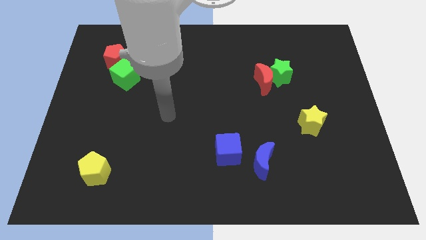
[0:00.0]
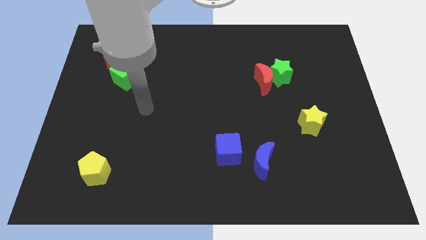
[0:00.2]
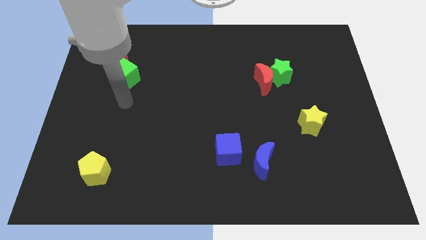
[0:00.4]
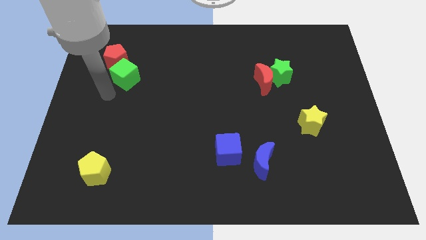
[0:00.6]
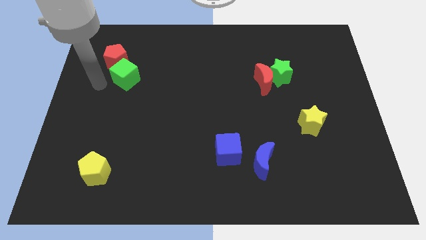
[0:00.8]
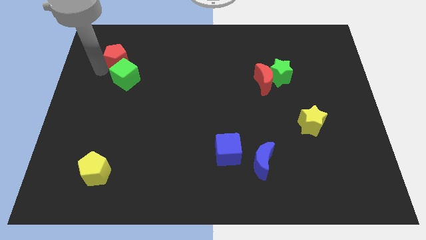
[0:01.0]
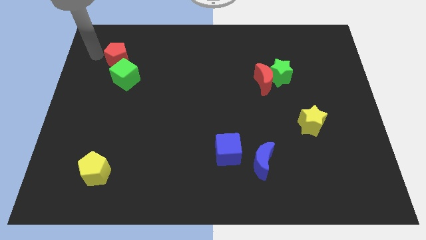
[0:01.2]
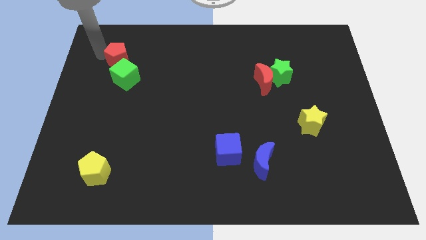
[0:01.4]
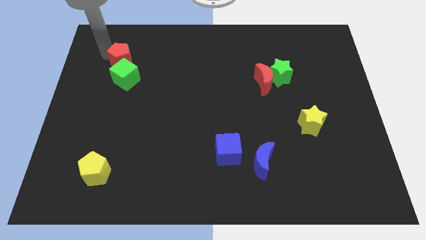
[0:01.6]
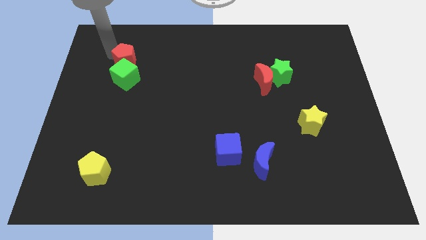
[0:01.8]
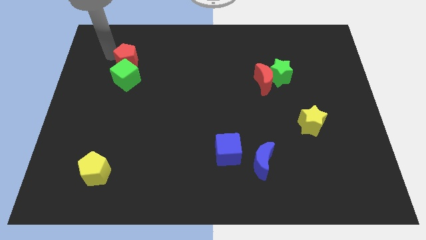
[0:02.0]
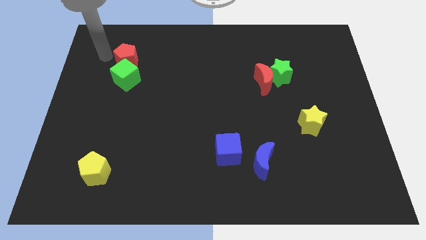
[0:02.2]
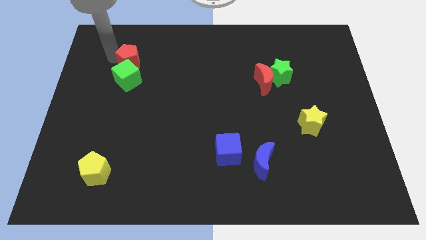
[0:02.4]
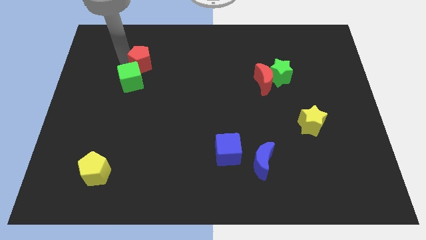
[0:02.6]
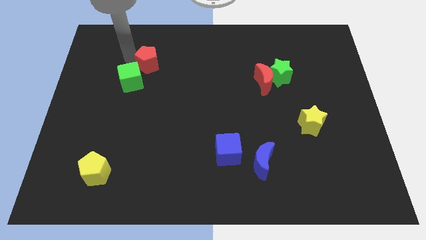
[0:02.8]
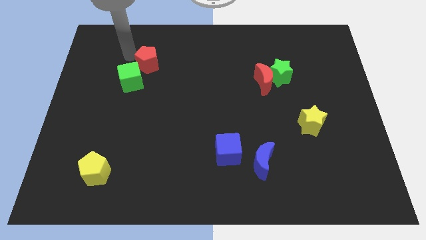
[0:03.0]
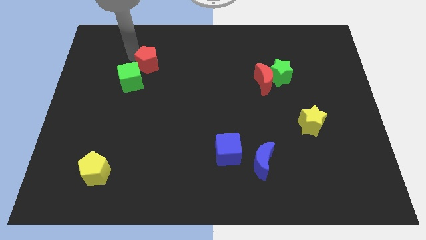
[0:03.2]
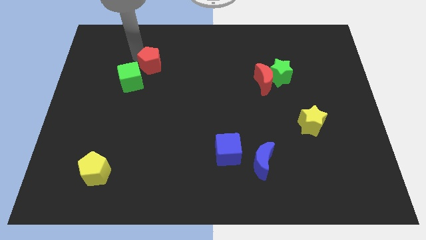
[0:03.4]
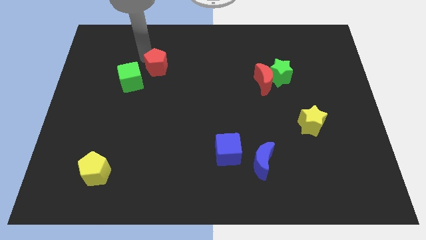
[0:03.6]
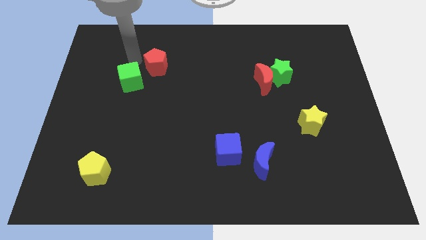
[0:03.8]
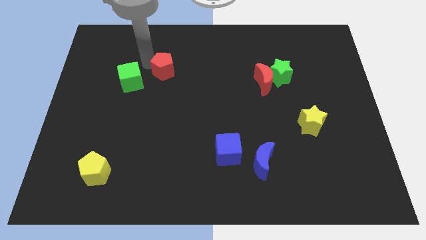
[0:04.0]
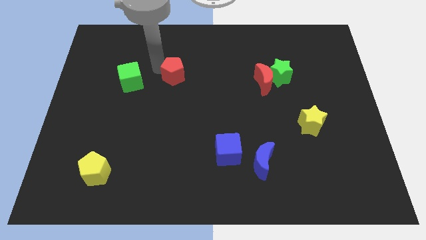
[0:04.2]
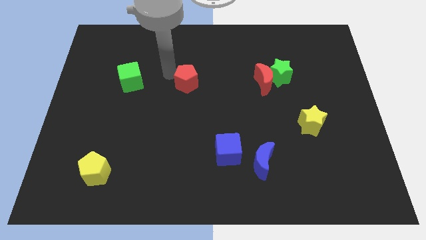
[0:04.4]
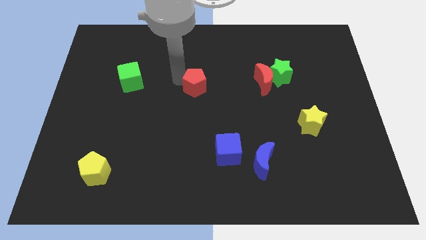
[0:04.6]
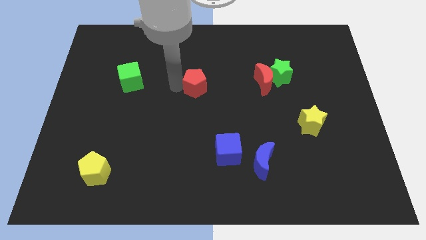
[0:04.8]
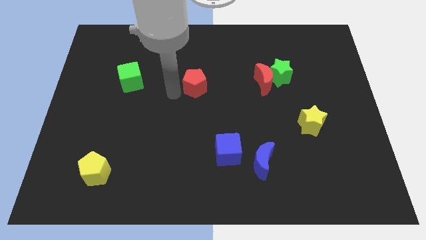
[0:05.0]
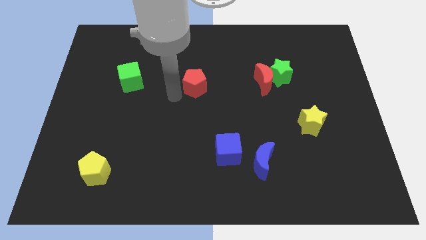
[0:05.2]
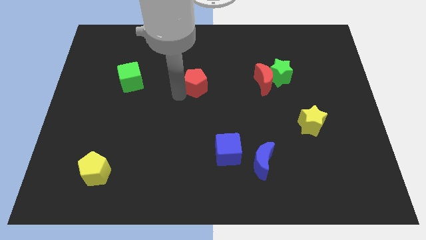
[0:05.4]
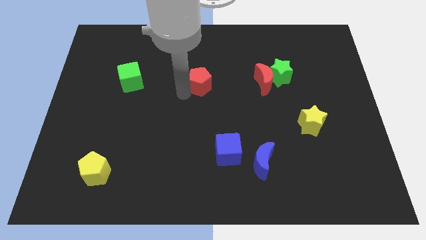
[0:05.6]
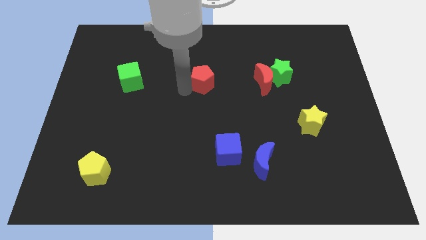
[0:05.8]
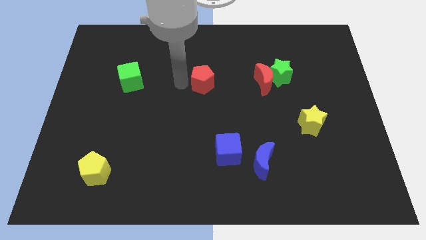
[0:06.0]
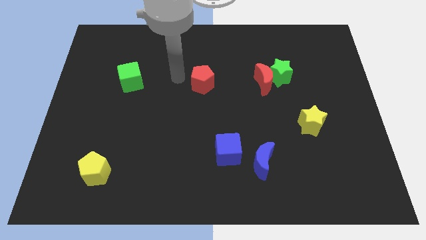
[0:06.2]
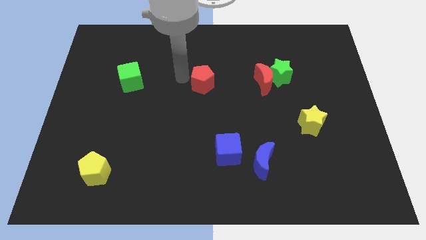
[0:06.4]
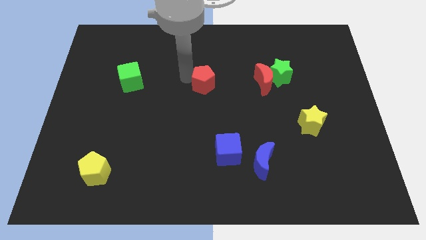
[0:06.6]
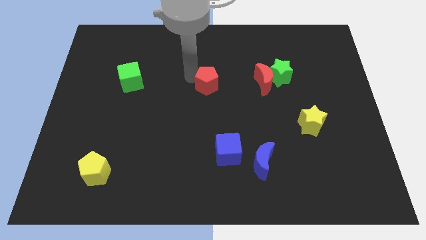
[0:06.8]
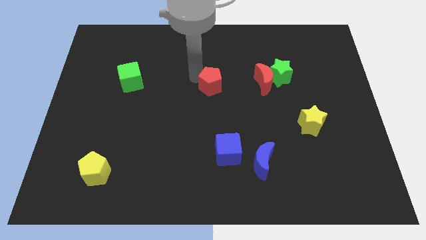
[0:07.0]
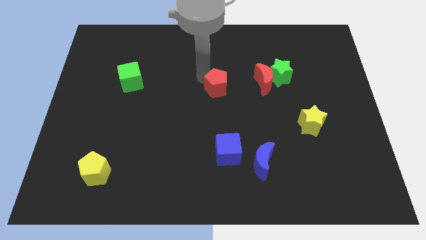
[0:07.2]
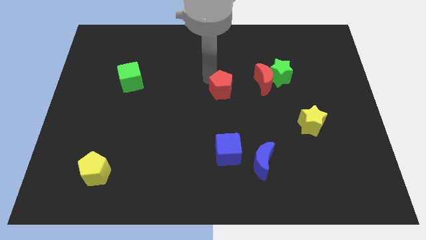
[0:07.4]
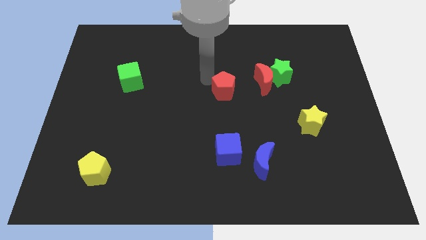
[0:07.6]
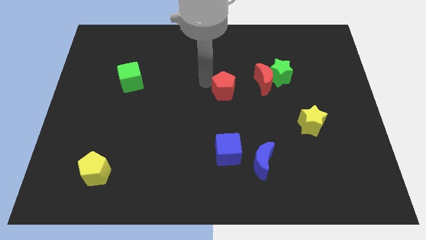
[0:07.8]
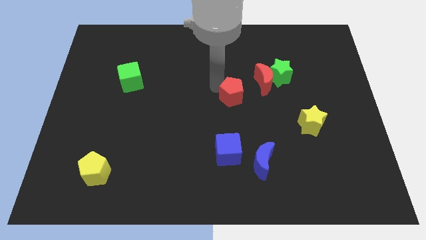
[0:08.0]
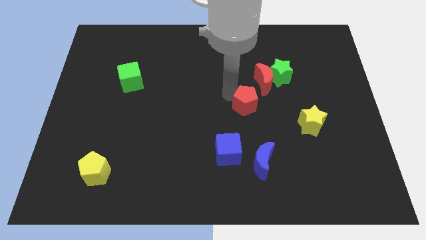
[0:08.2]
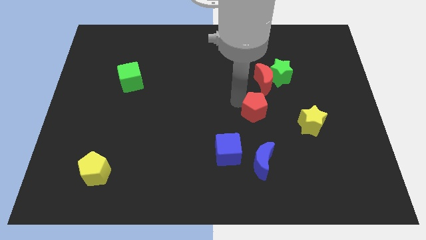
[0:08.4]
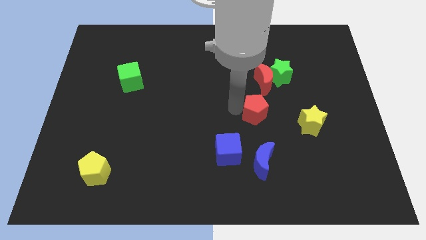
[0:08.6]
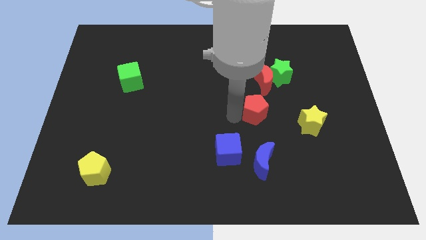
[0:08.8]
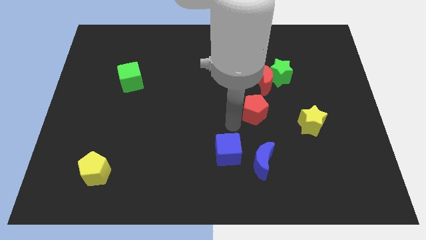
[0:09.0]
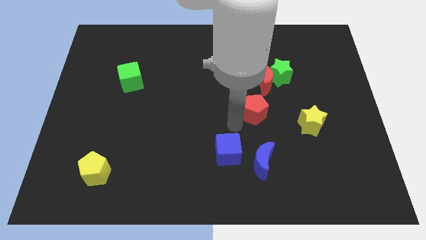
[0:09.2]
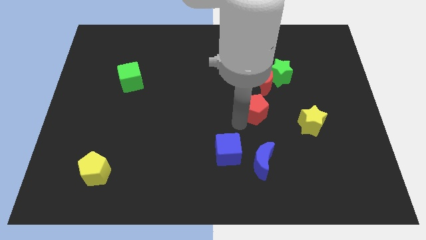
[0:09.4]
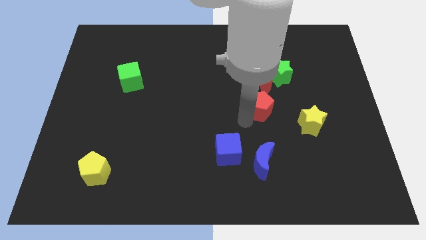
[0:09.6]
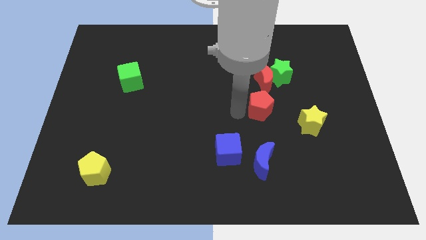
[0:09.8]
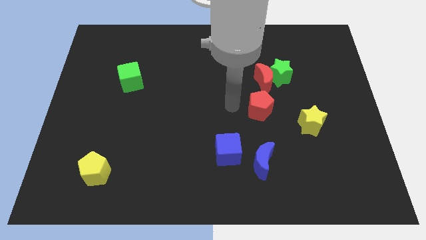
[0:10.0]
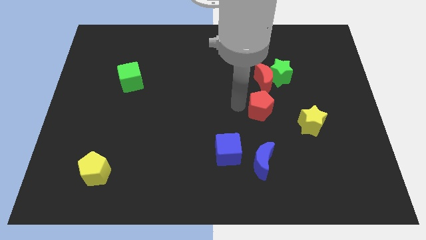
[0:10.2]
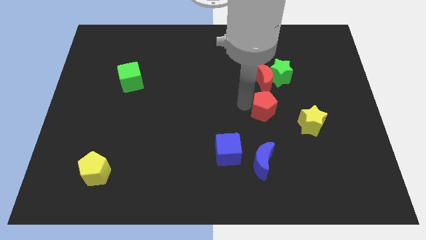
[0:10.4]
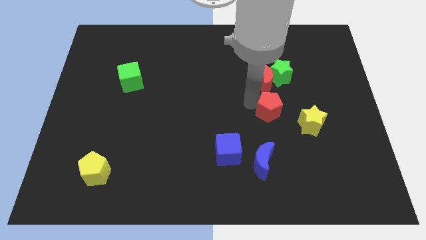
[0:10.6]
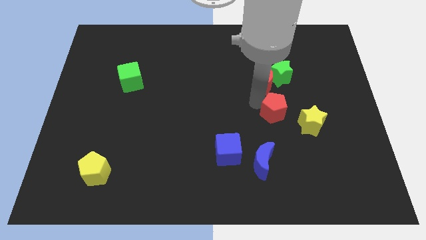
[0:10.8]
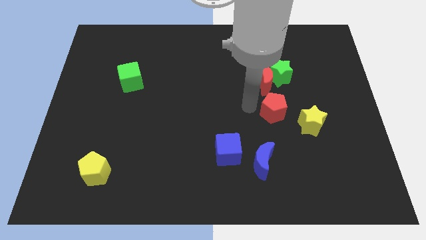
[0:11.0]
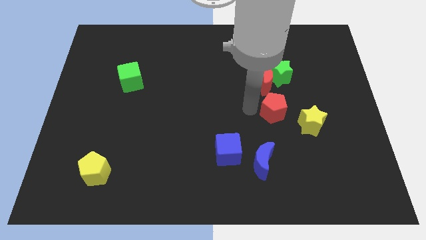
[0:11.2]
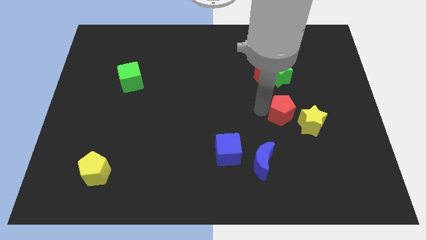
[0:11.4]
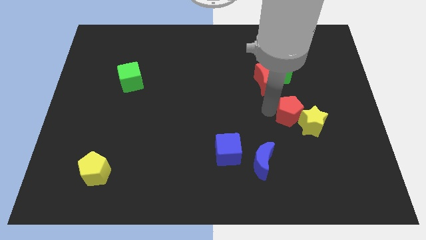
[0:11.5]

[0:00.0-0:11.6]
put the red pentagon next to the yellow star

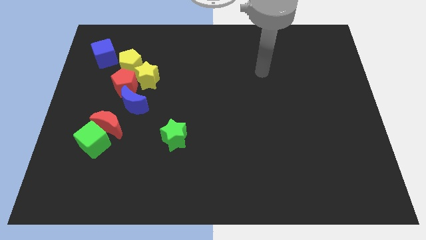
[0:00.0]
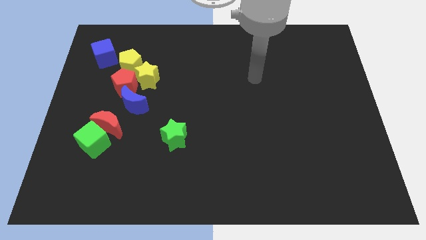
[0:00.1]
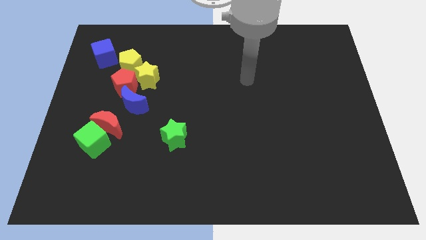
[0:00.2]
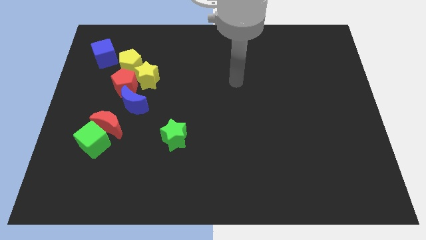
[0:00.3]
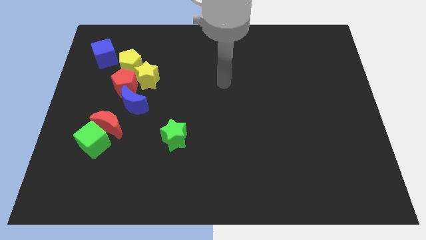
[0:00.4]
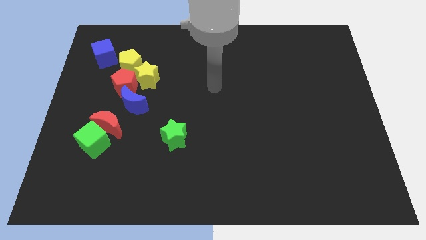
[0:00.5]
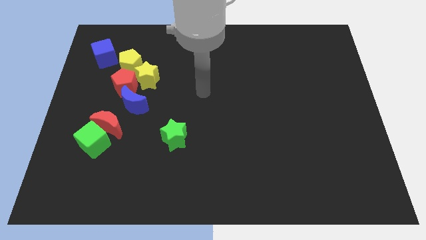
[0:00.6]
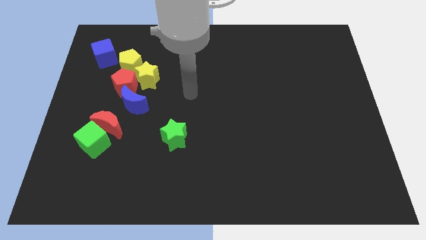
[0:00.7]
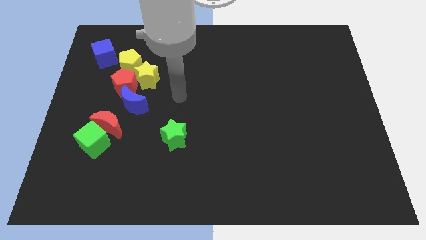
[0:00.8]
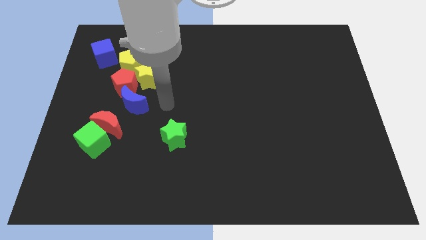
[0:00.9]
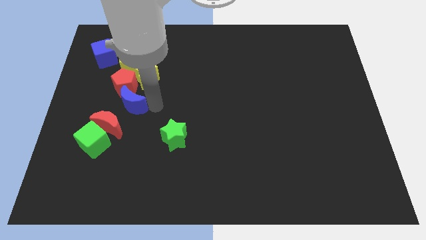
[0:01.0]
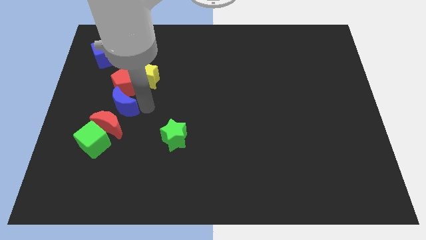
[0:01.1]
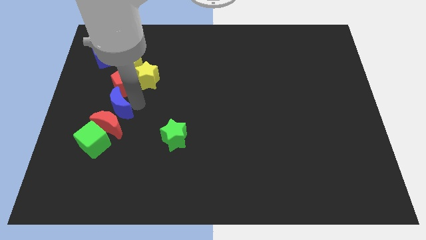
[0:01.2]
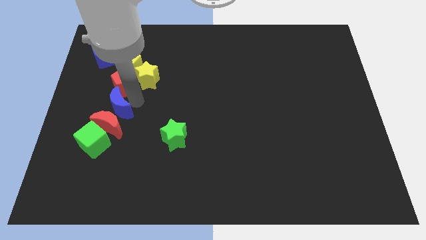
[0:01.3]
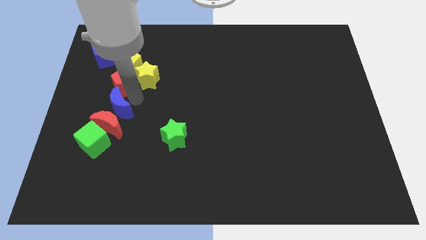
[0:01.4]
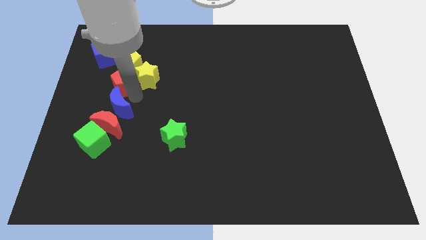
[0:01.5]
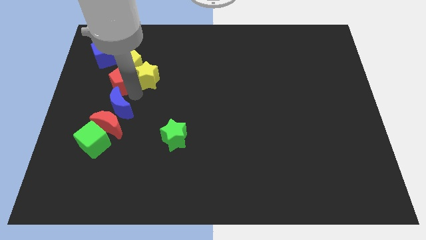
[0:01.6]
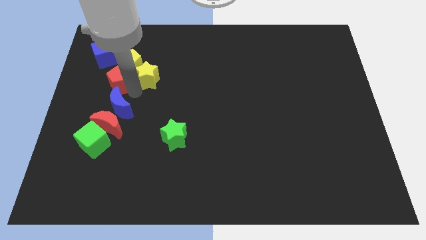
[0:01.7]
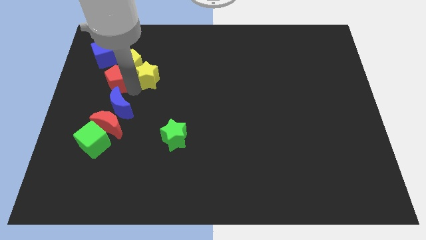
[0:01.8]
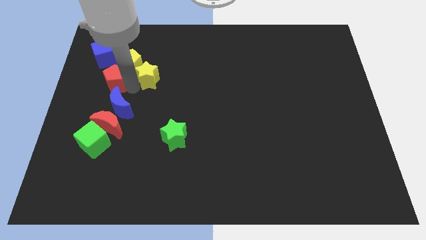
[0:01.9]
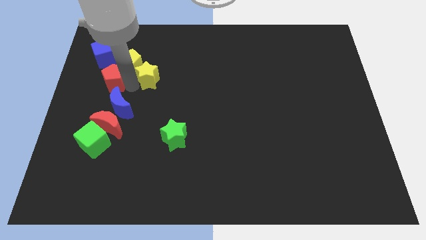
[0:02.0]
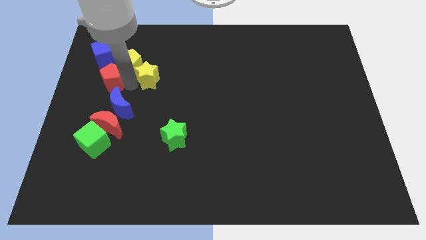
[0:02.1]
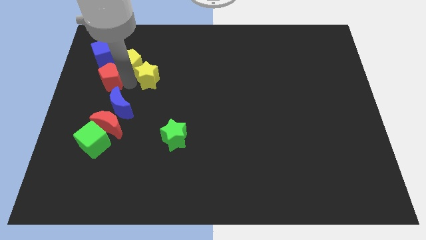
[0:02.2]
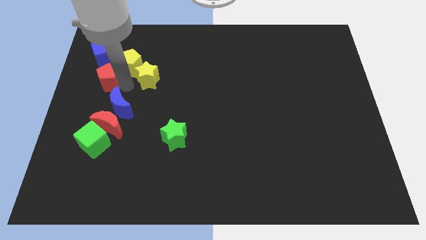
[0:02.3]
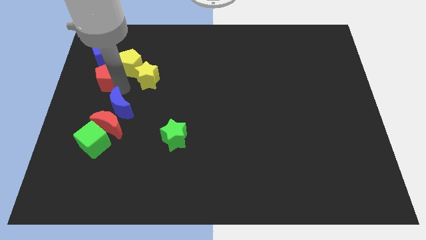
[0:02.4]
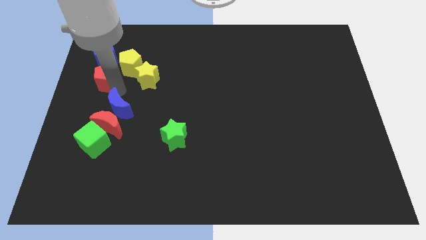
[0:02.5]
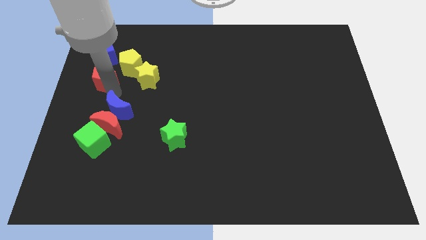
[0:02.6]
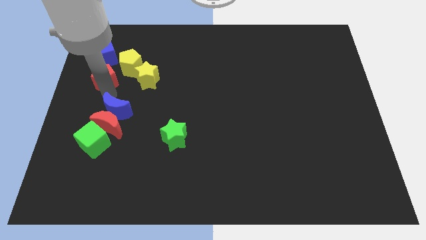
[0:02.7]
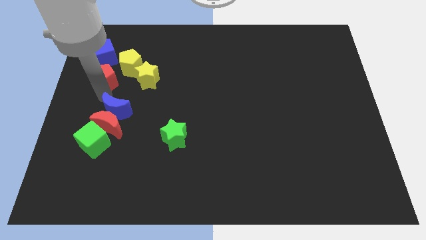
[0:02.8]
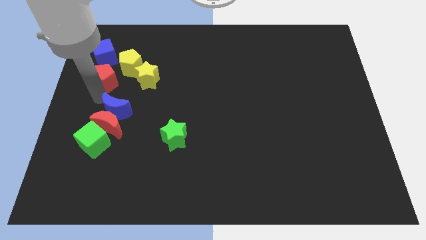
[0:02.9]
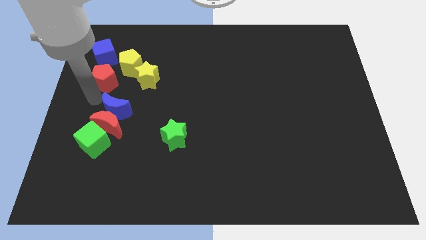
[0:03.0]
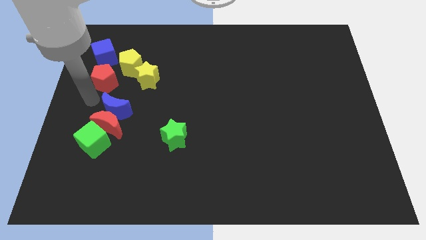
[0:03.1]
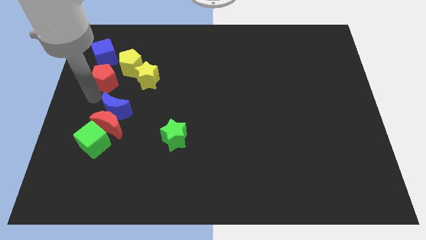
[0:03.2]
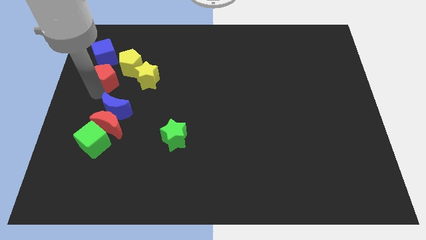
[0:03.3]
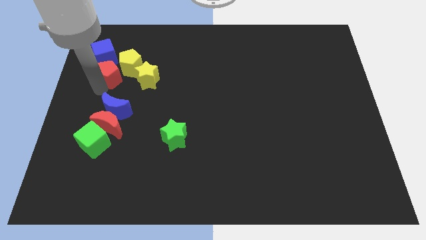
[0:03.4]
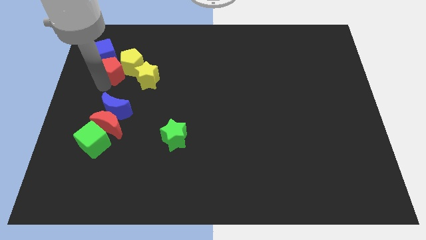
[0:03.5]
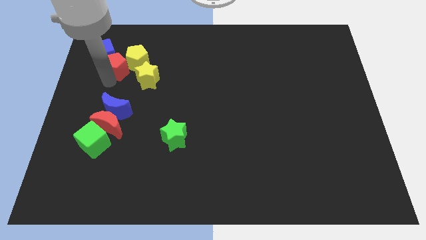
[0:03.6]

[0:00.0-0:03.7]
slide the red pentagon close to the blue cube
